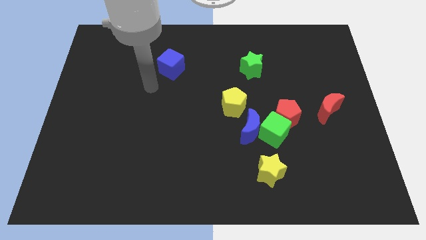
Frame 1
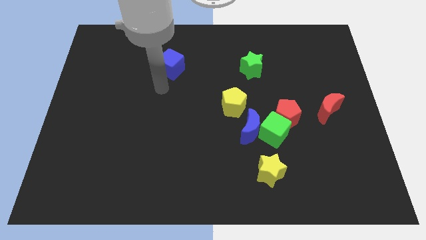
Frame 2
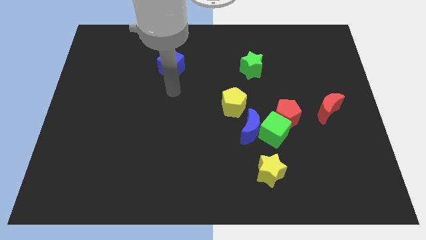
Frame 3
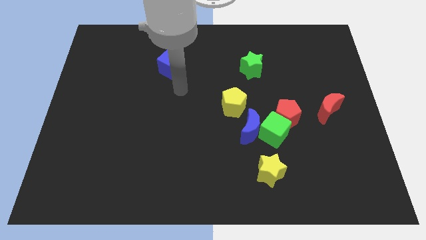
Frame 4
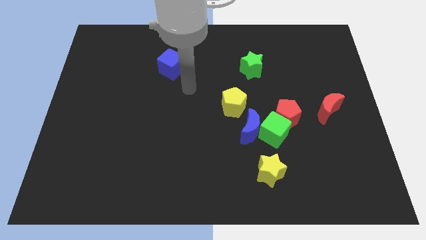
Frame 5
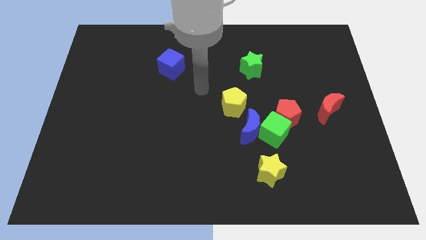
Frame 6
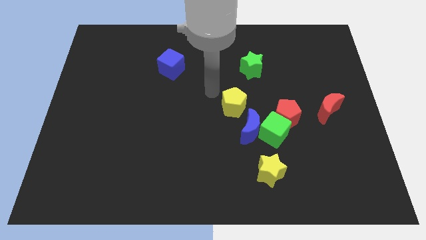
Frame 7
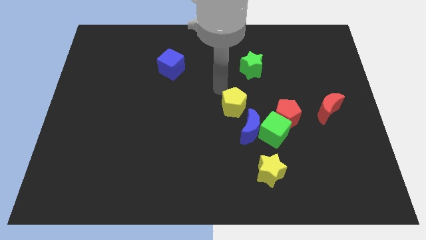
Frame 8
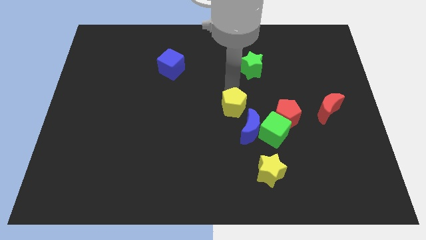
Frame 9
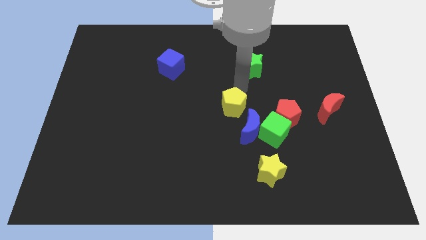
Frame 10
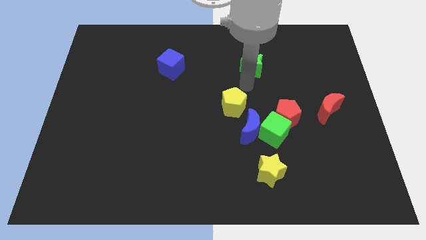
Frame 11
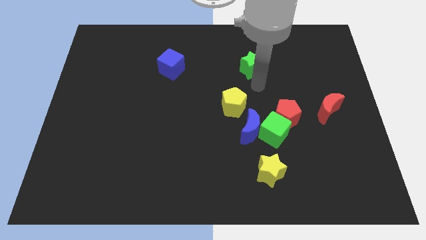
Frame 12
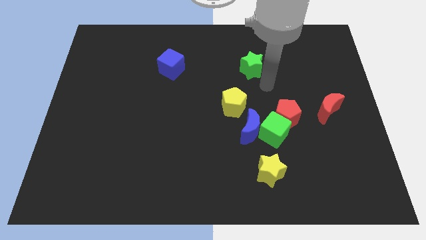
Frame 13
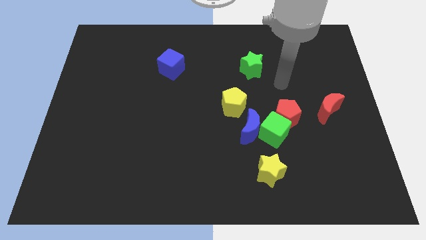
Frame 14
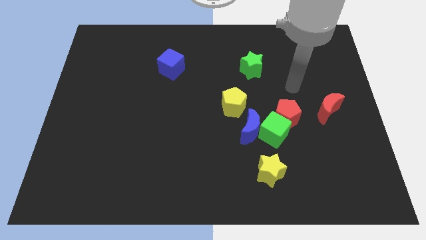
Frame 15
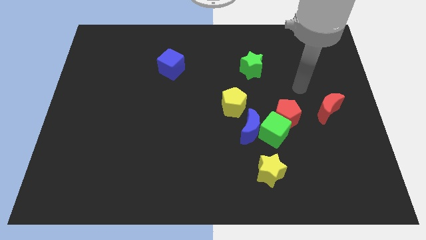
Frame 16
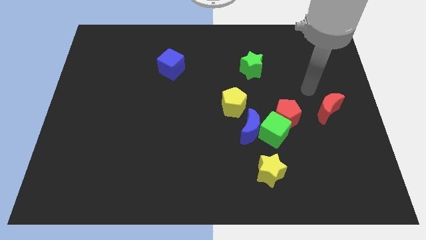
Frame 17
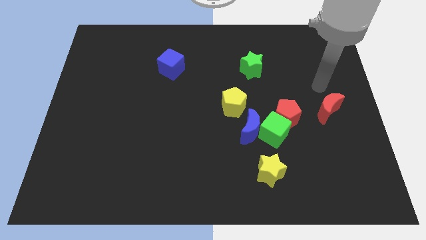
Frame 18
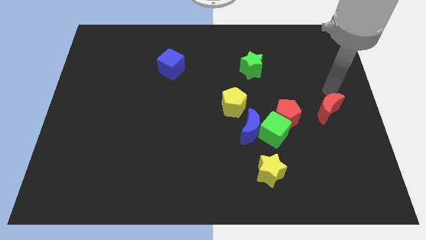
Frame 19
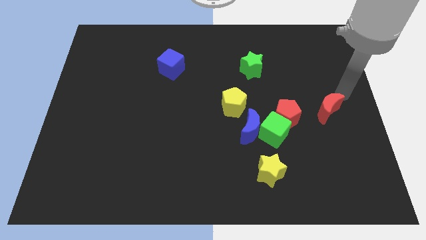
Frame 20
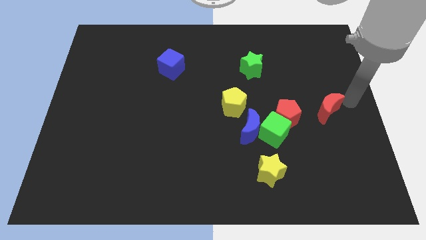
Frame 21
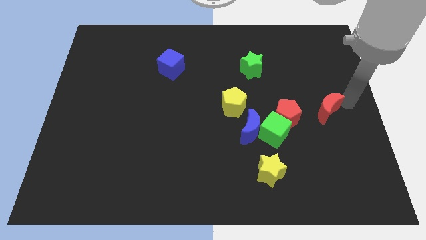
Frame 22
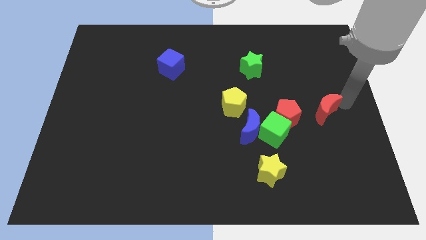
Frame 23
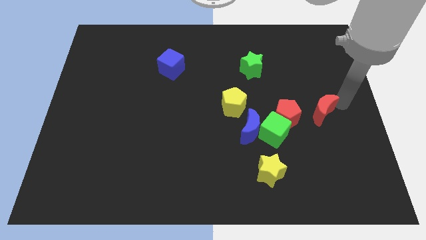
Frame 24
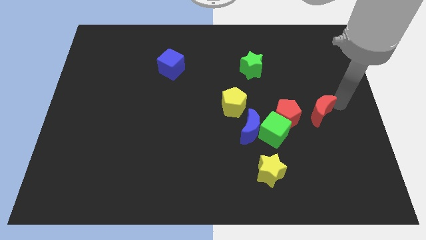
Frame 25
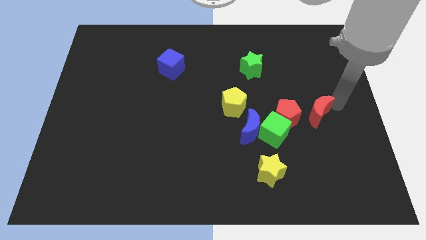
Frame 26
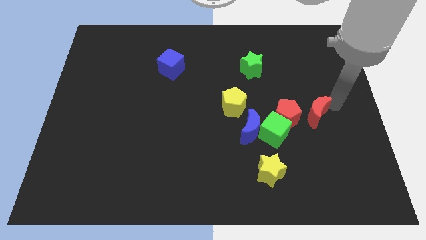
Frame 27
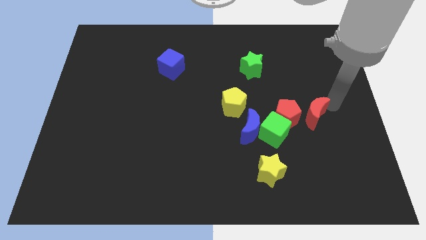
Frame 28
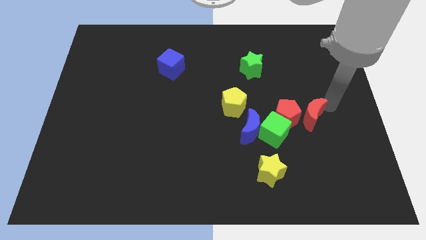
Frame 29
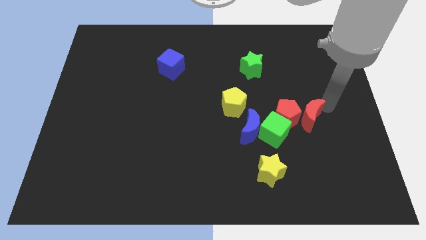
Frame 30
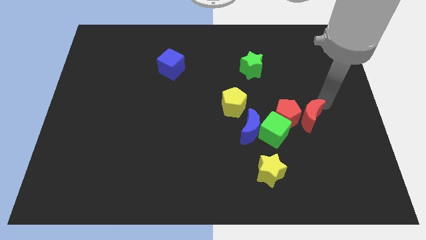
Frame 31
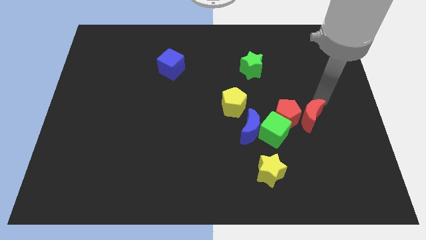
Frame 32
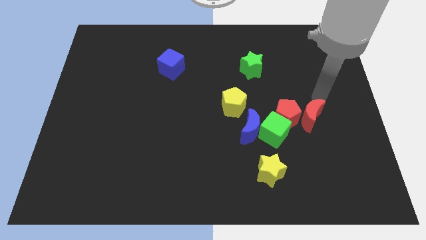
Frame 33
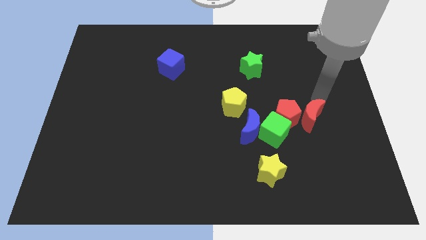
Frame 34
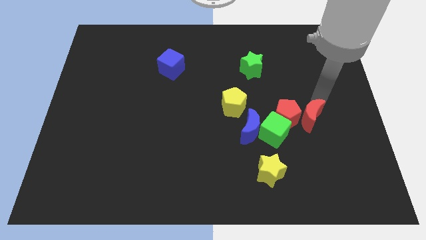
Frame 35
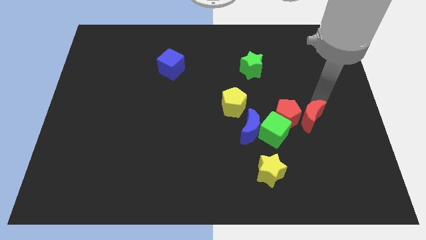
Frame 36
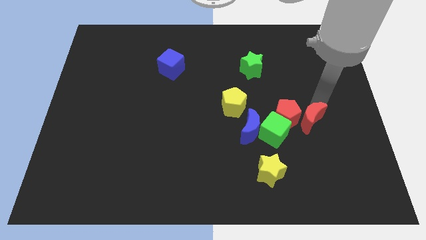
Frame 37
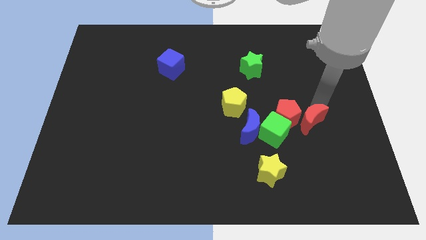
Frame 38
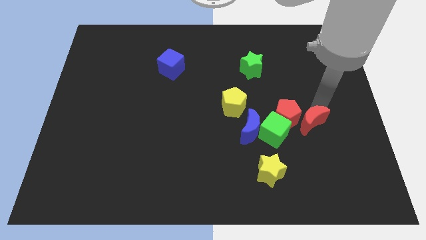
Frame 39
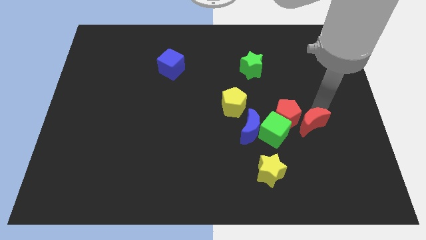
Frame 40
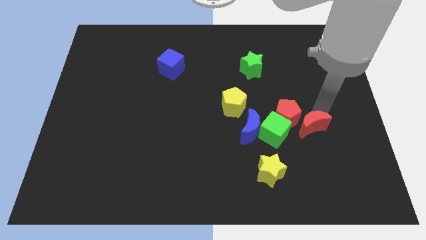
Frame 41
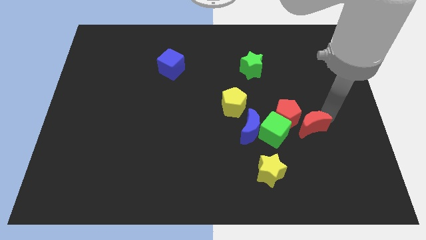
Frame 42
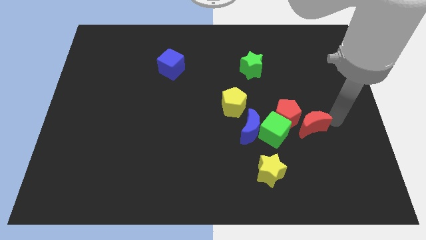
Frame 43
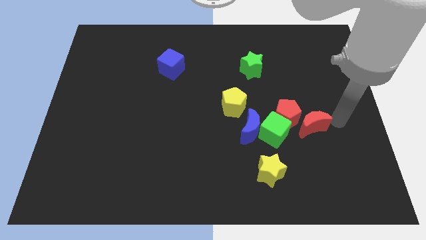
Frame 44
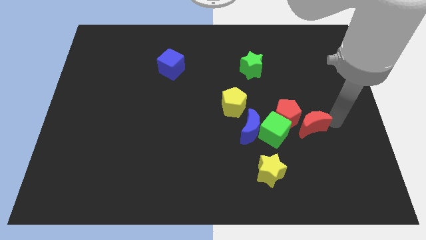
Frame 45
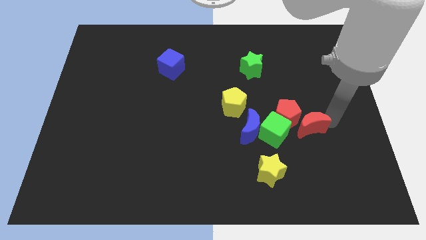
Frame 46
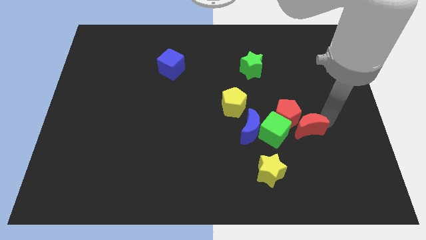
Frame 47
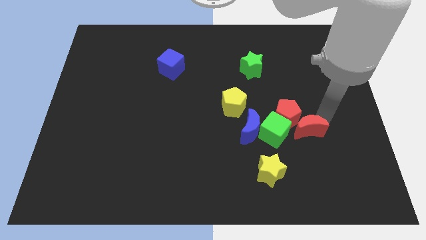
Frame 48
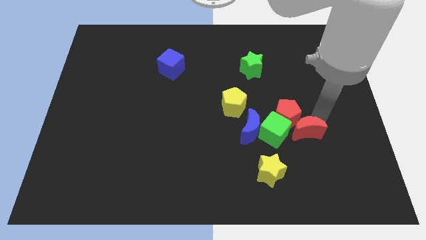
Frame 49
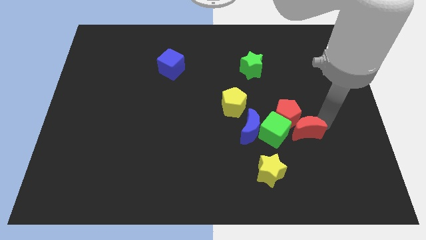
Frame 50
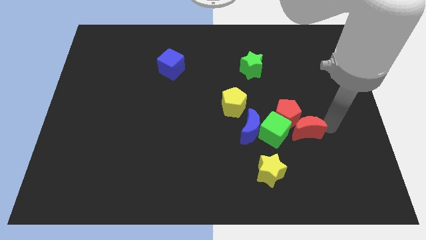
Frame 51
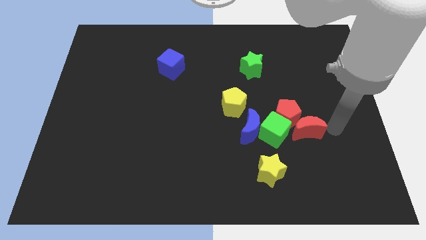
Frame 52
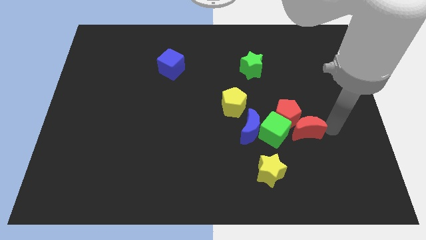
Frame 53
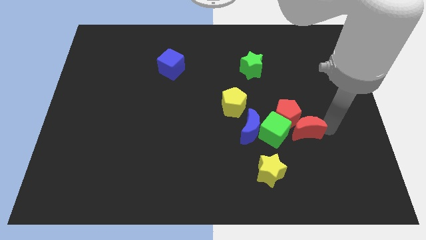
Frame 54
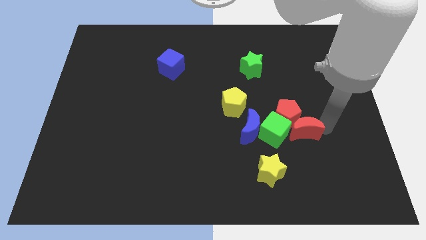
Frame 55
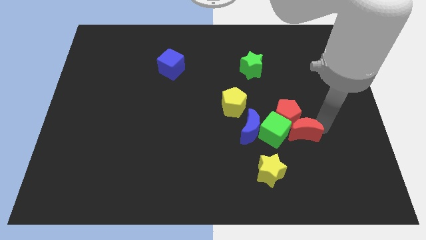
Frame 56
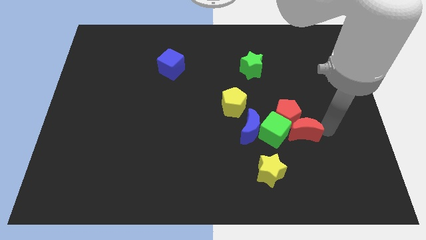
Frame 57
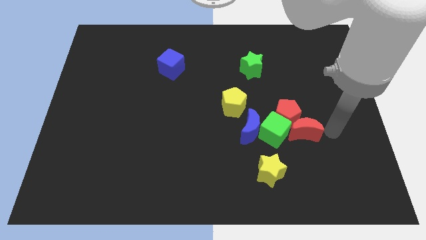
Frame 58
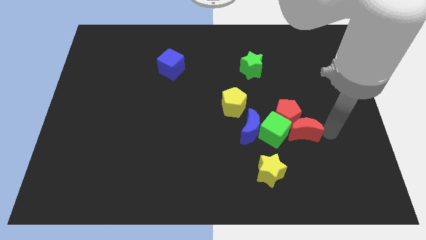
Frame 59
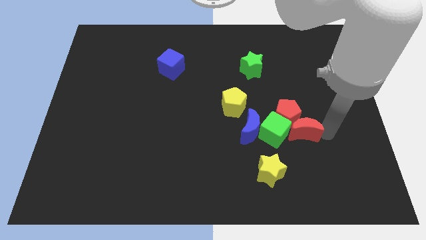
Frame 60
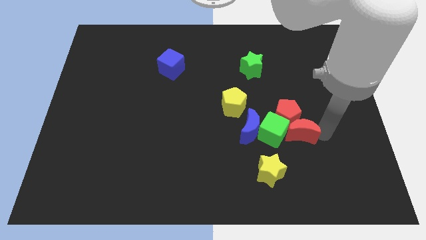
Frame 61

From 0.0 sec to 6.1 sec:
put the red moon to the green cube

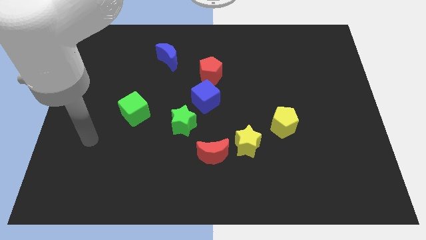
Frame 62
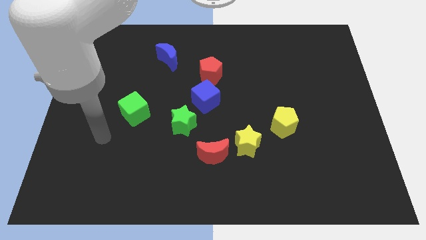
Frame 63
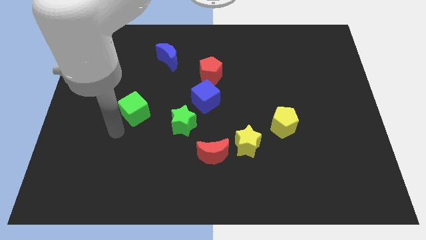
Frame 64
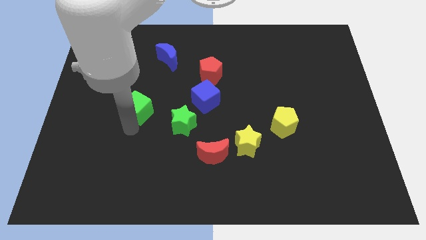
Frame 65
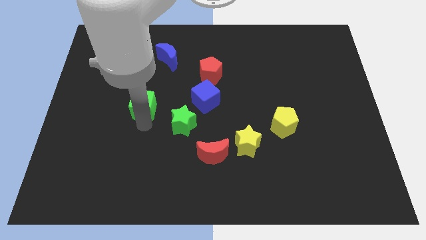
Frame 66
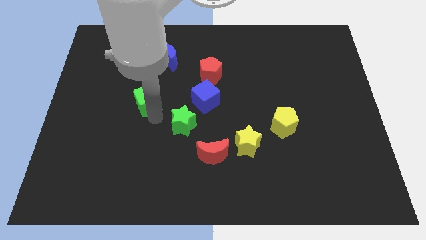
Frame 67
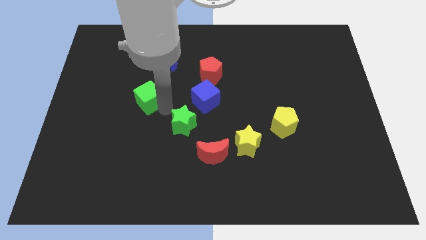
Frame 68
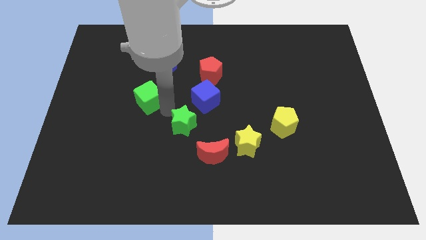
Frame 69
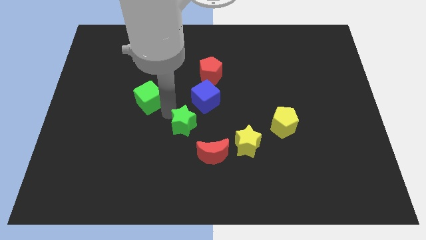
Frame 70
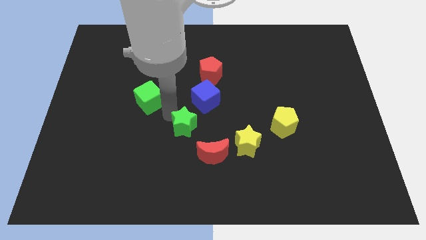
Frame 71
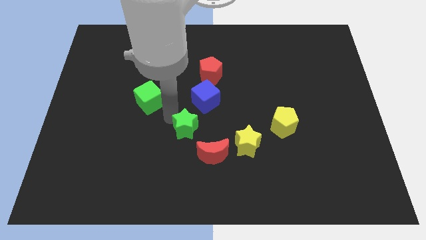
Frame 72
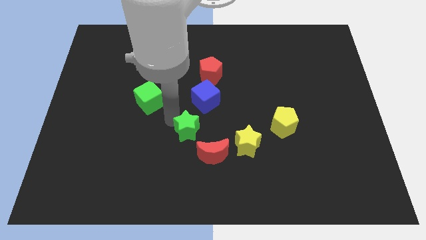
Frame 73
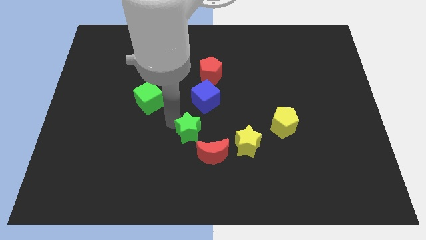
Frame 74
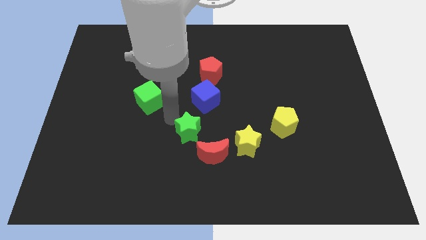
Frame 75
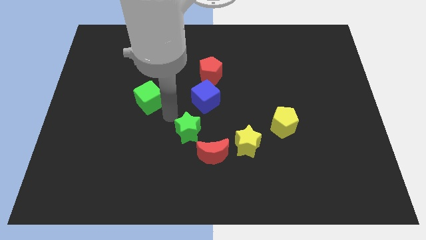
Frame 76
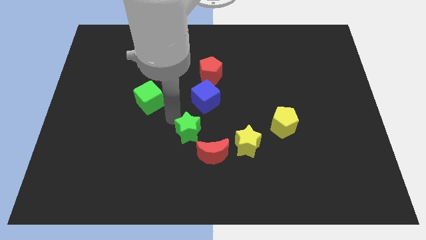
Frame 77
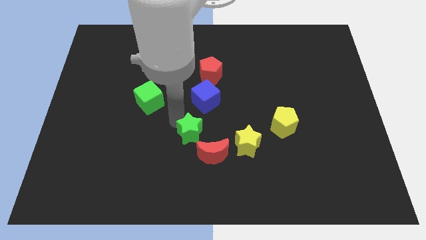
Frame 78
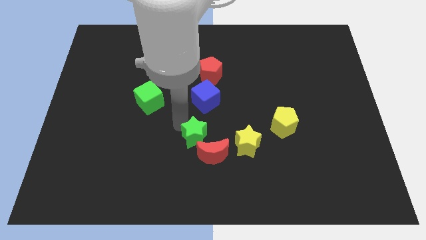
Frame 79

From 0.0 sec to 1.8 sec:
put the green star to the red moon
